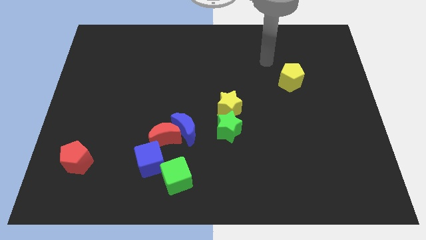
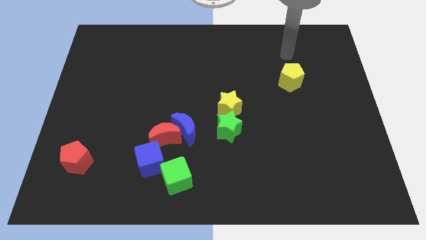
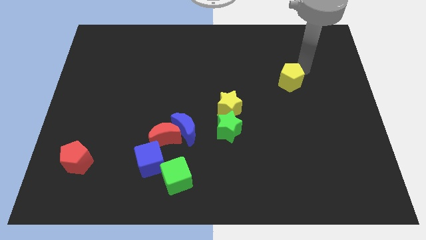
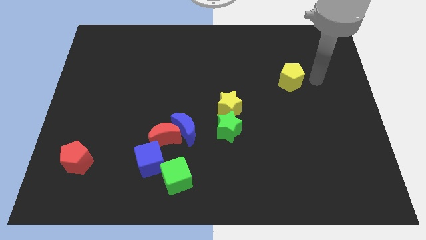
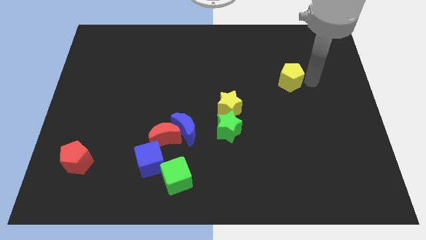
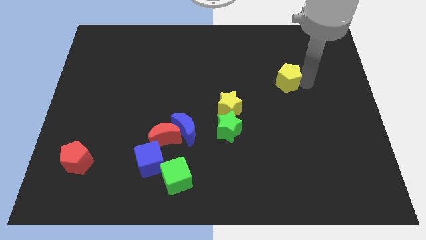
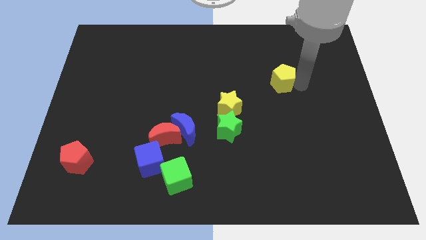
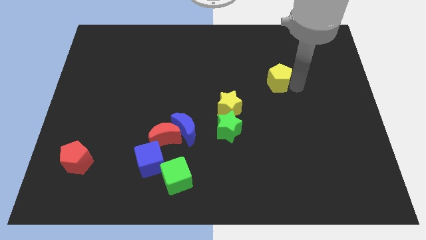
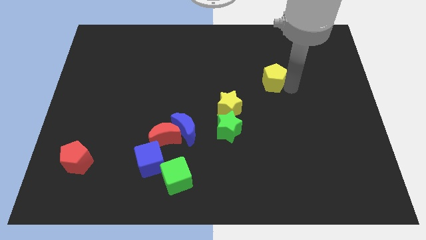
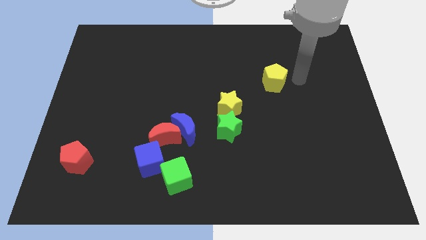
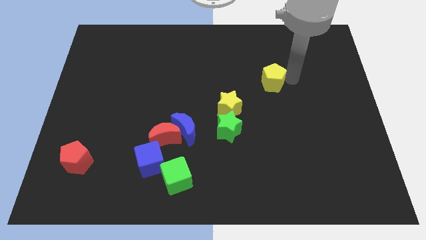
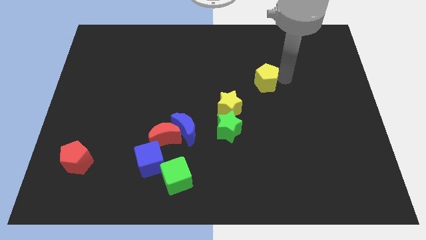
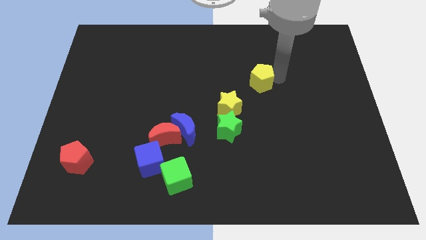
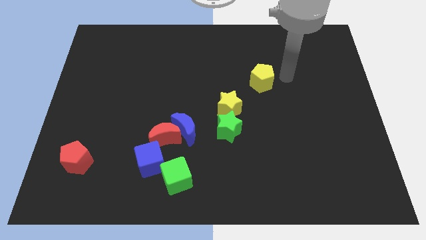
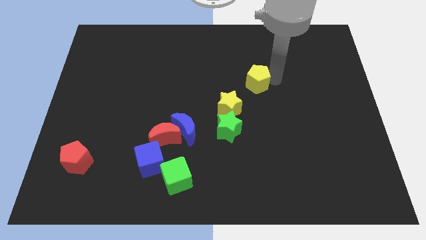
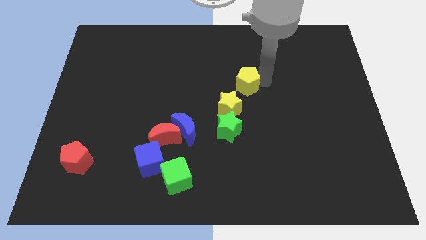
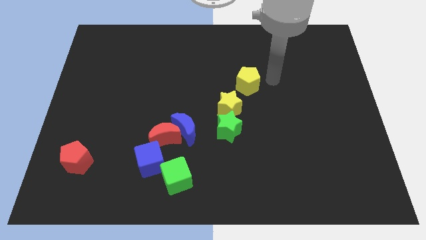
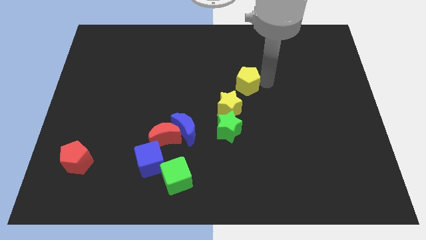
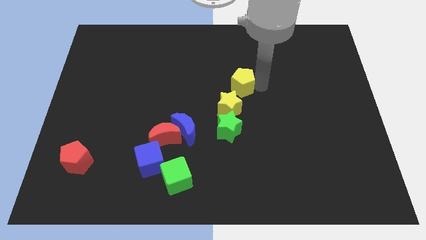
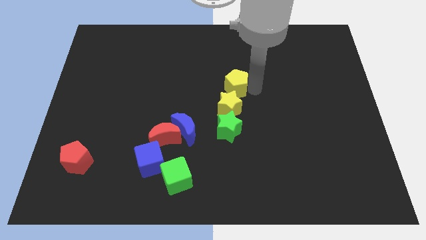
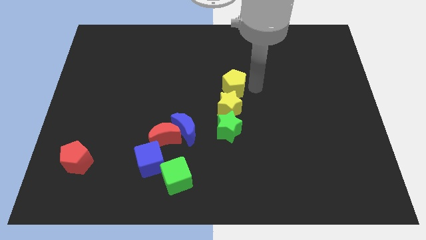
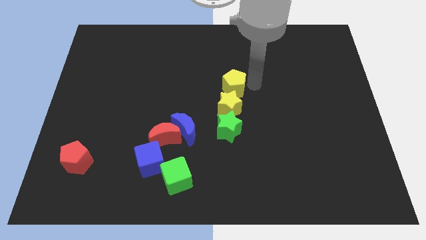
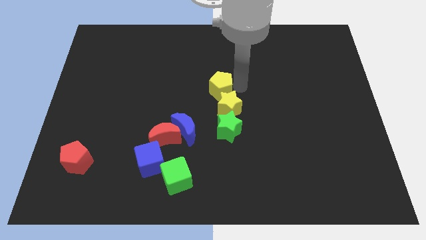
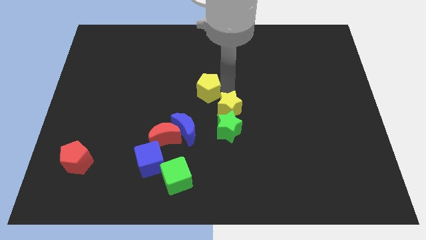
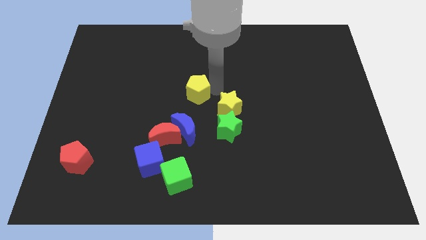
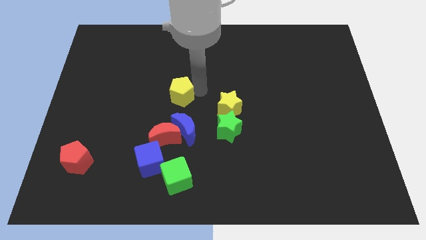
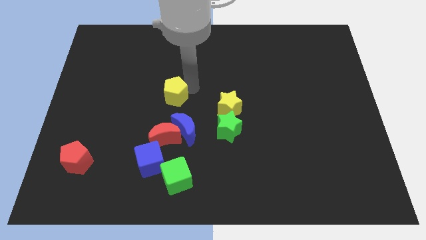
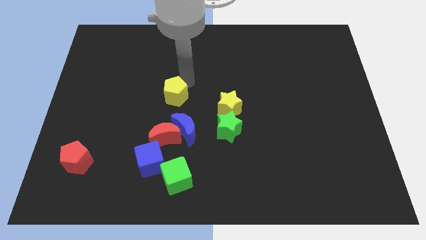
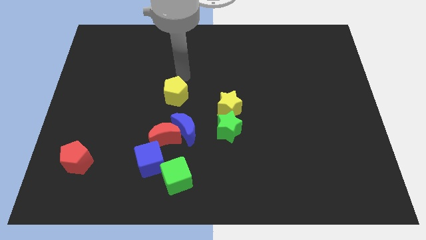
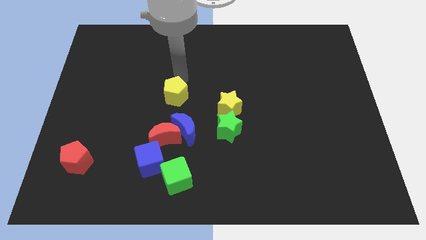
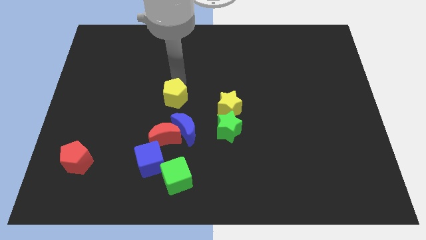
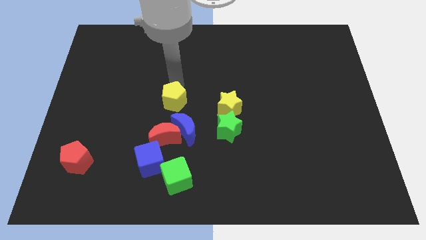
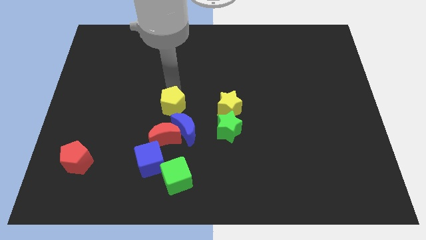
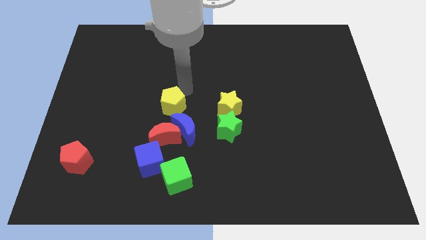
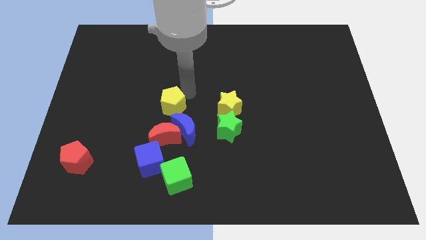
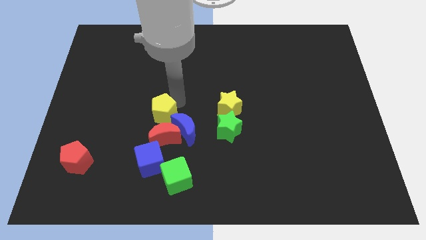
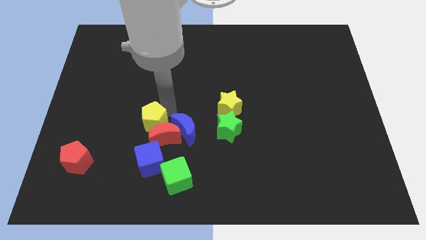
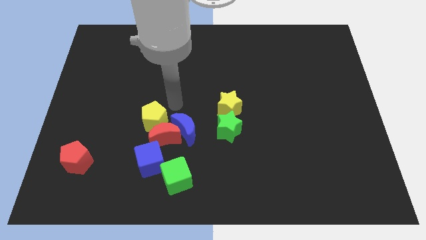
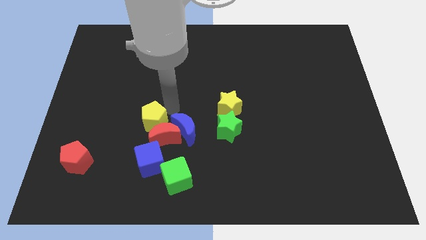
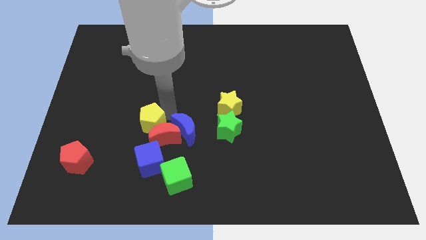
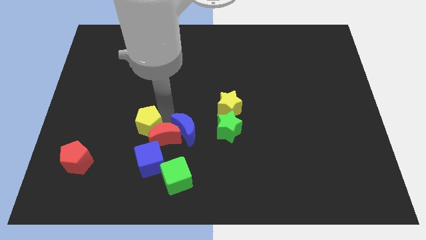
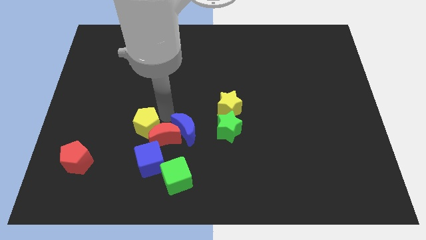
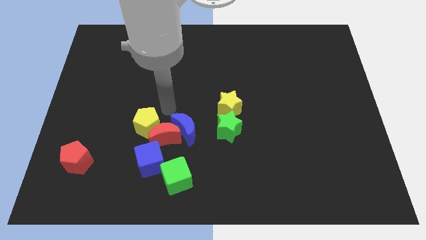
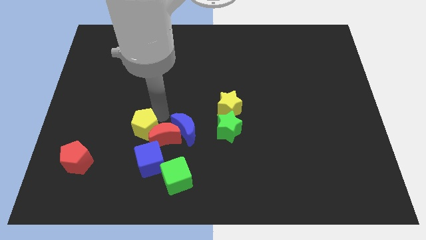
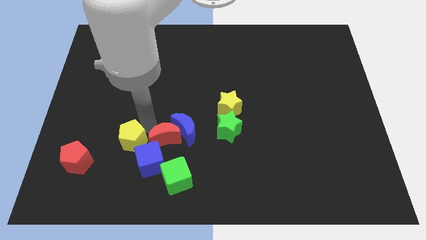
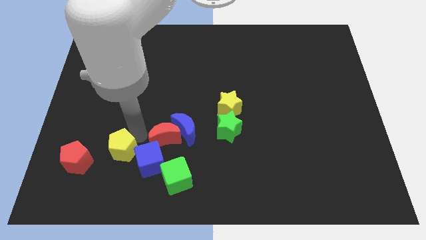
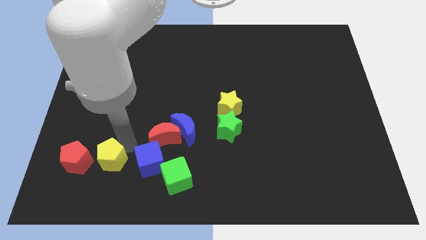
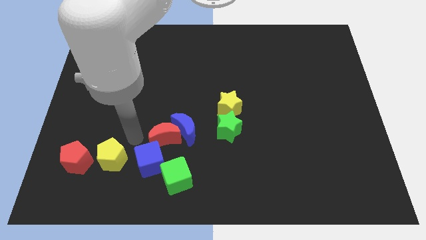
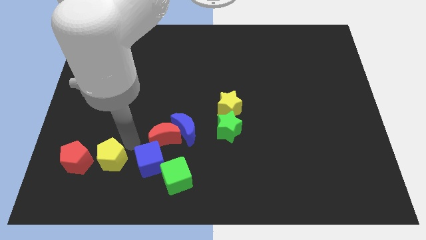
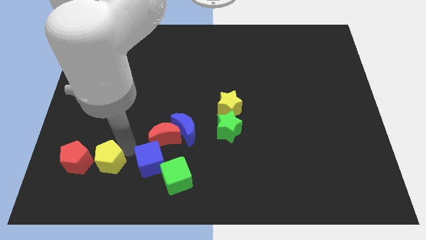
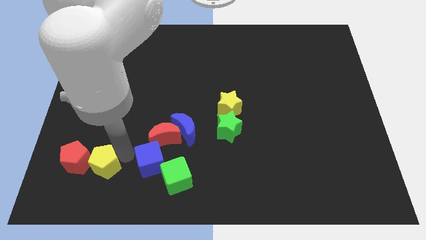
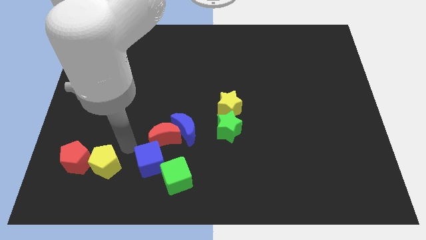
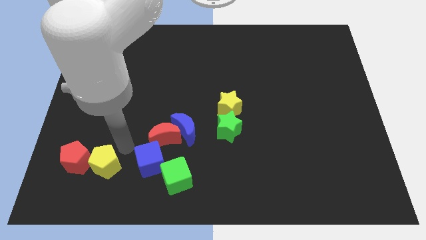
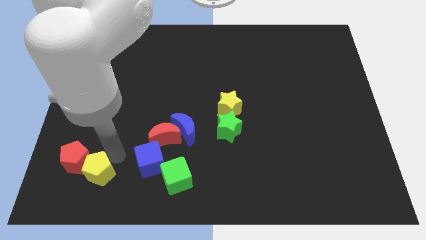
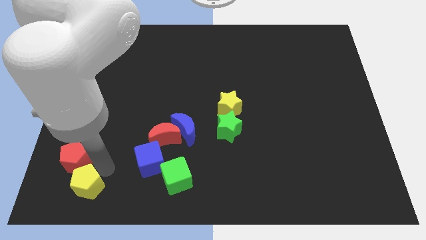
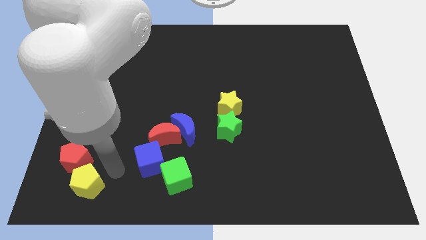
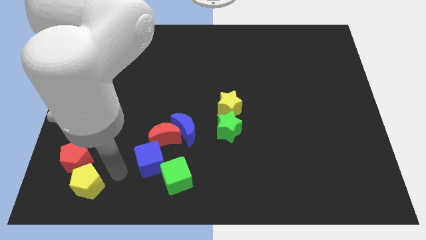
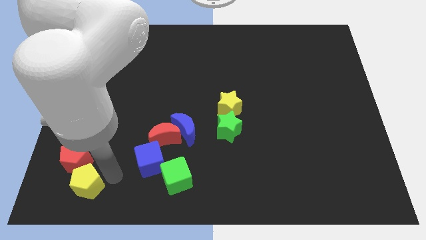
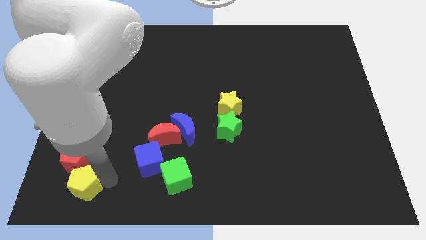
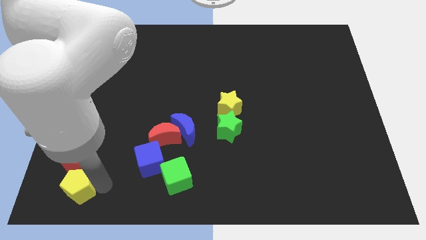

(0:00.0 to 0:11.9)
slide the yellow pentagon to the bottom left corner

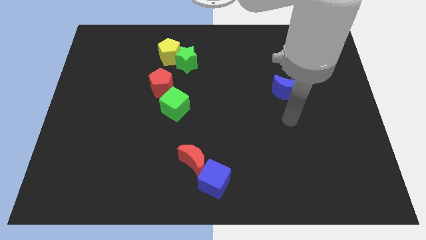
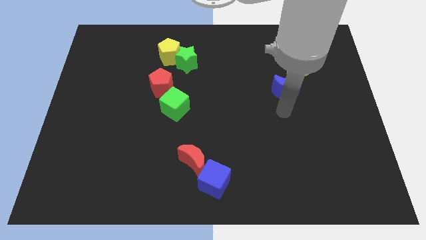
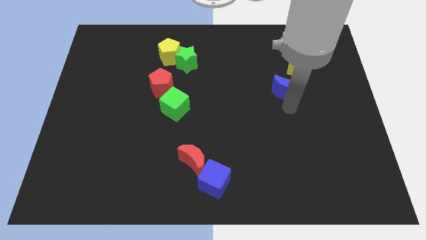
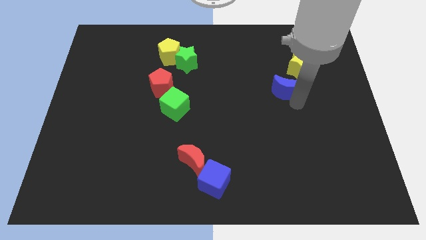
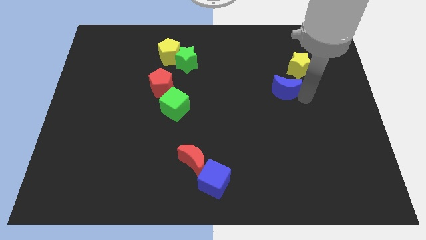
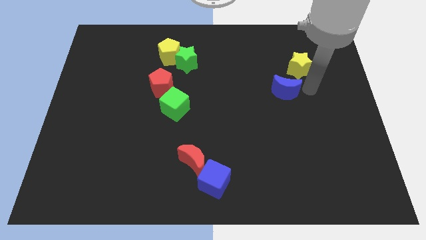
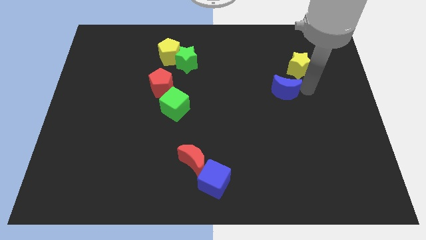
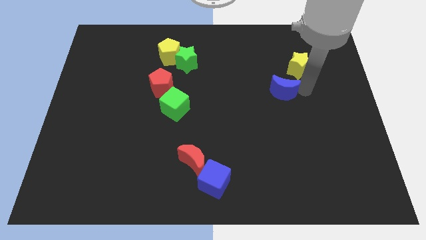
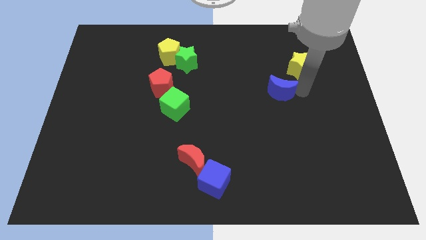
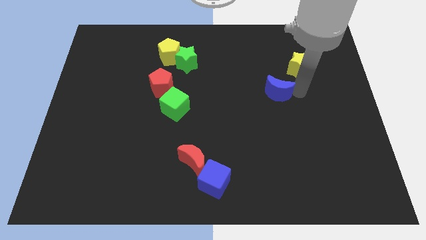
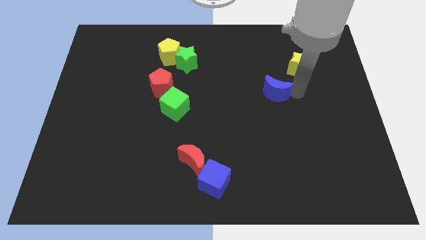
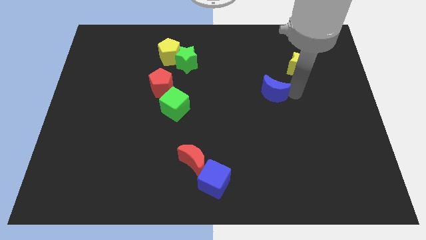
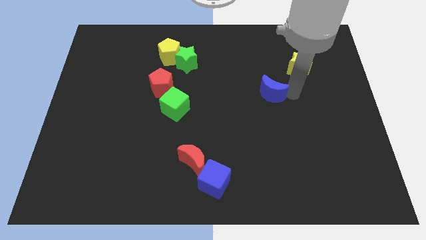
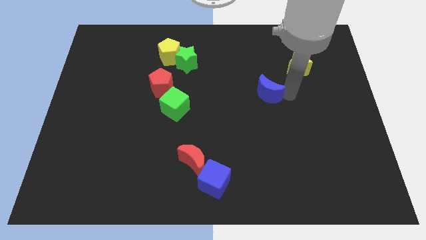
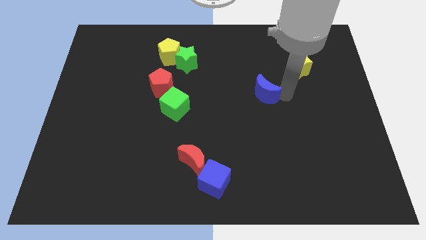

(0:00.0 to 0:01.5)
slide the blue moon to the center
